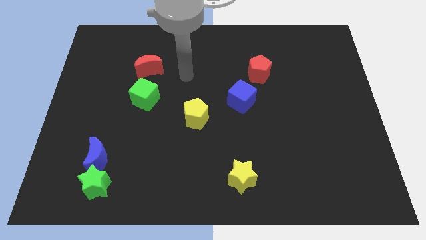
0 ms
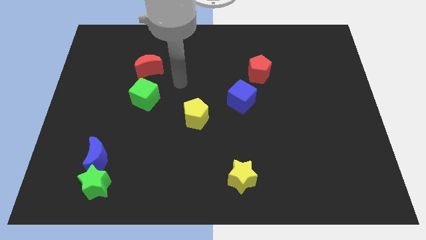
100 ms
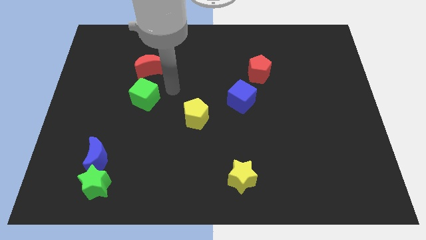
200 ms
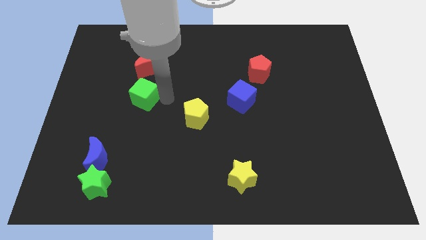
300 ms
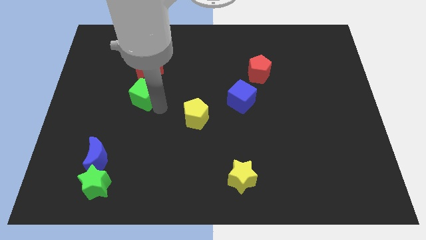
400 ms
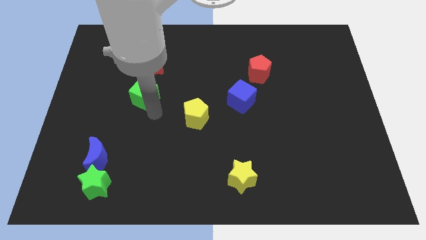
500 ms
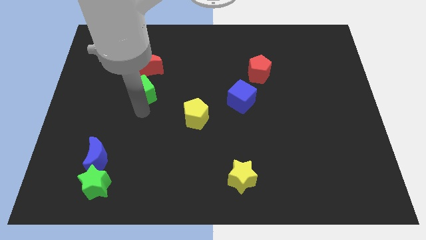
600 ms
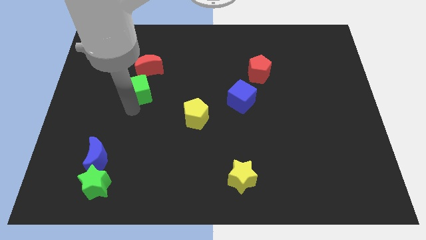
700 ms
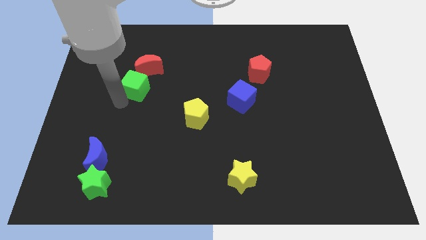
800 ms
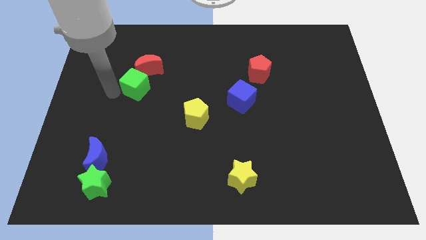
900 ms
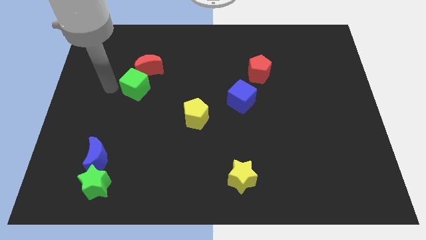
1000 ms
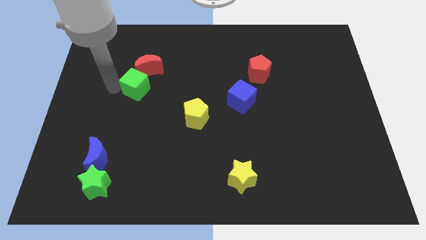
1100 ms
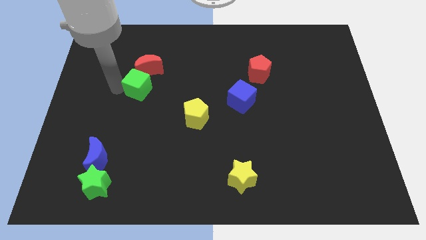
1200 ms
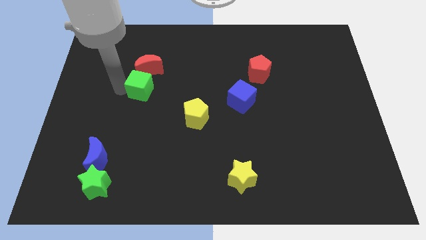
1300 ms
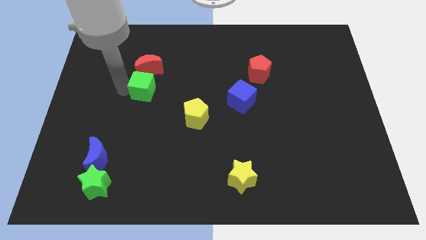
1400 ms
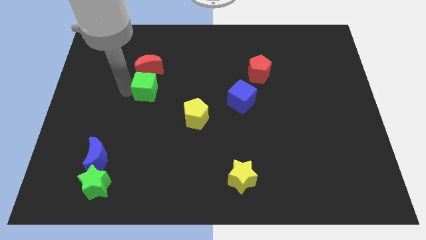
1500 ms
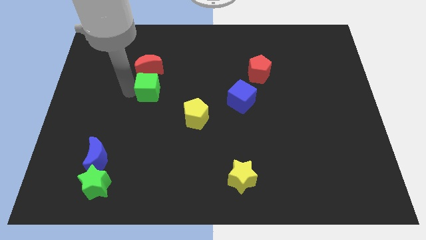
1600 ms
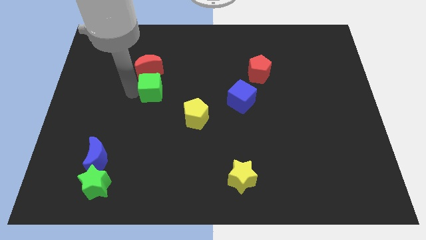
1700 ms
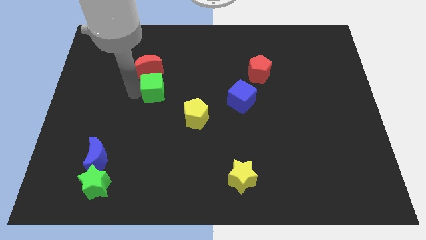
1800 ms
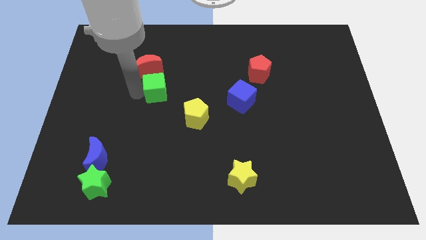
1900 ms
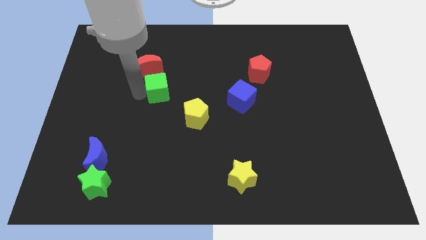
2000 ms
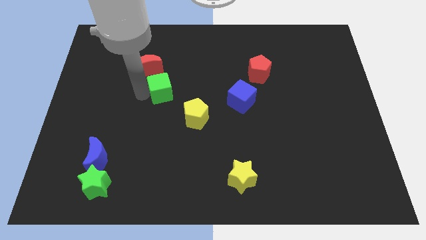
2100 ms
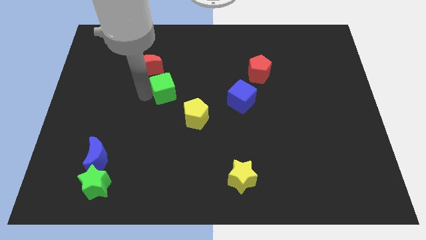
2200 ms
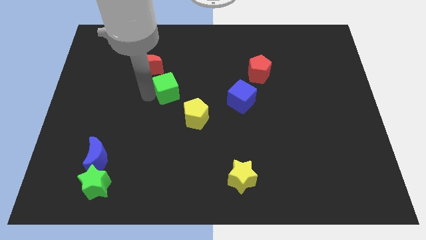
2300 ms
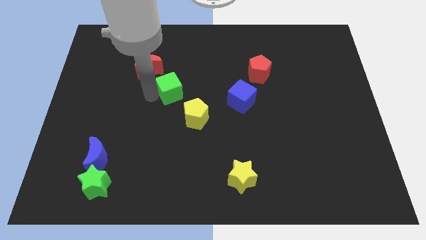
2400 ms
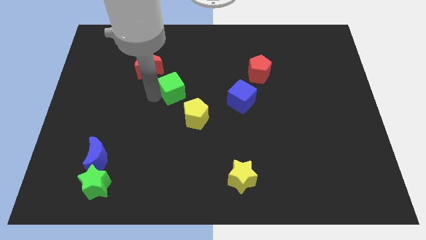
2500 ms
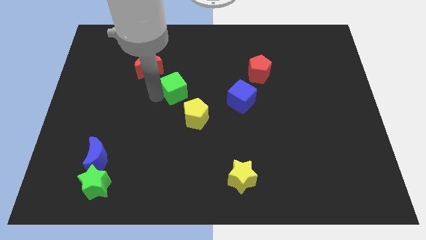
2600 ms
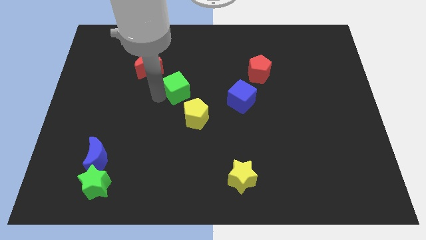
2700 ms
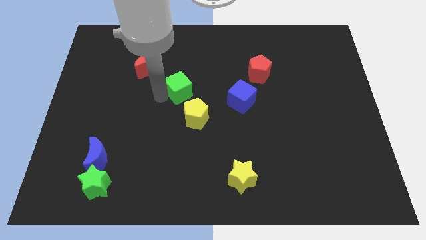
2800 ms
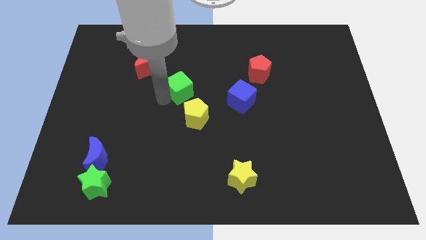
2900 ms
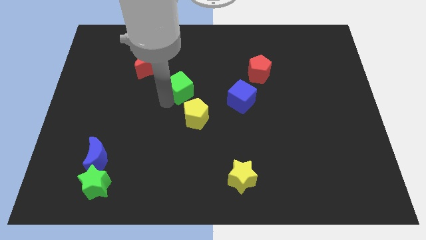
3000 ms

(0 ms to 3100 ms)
slightly slide the green cube upwards and to the right

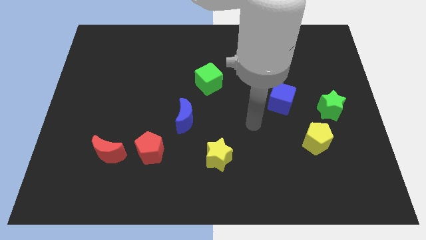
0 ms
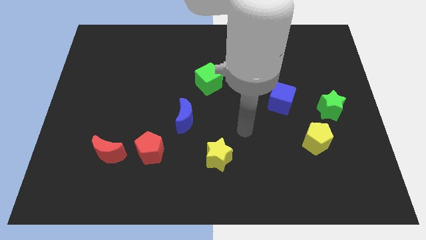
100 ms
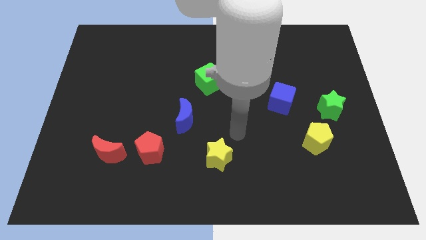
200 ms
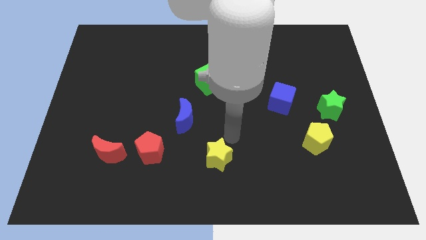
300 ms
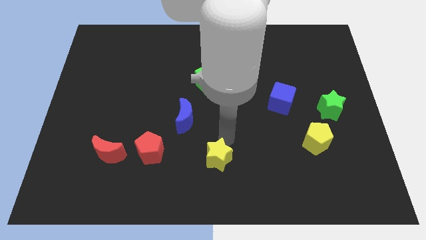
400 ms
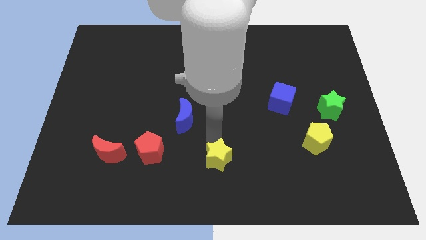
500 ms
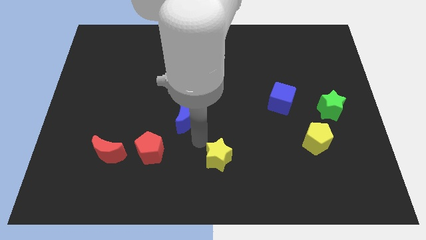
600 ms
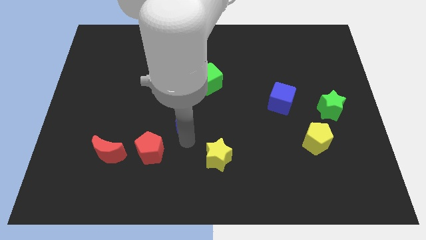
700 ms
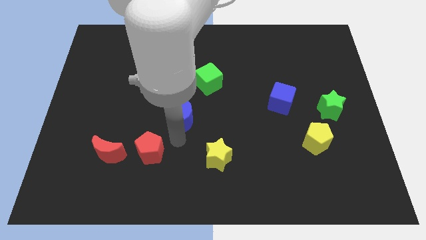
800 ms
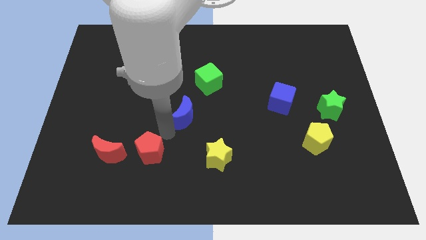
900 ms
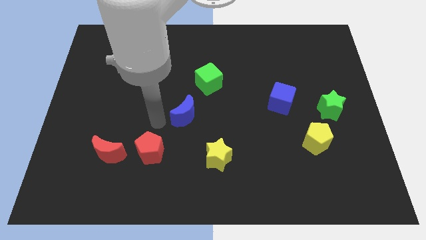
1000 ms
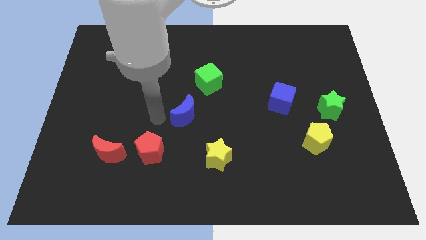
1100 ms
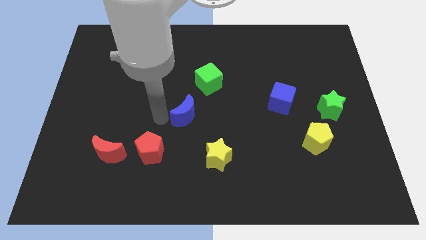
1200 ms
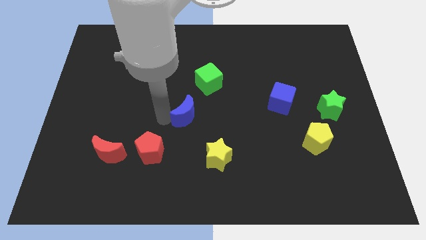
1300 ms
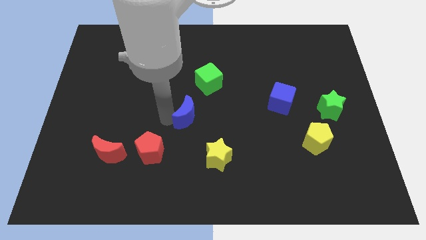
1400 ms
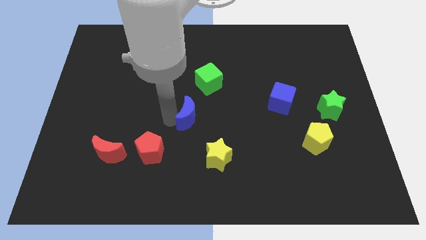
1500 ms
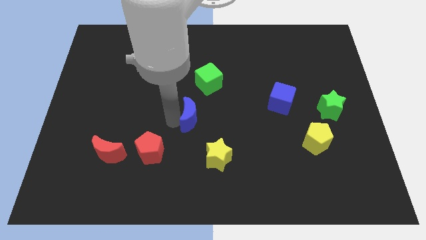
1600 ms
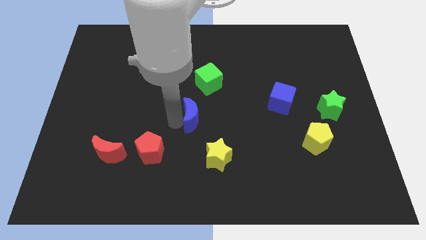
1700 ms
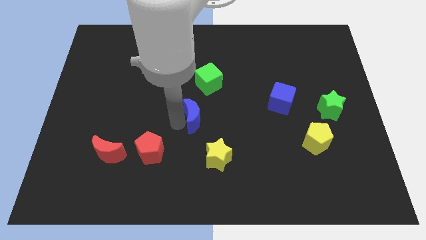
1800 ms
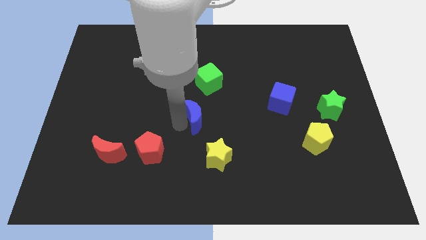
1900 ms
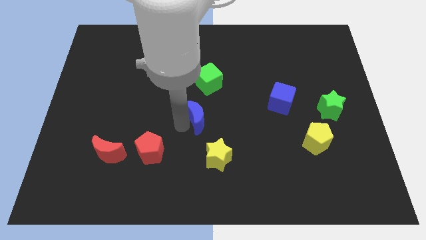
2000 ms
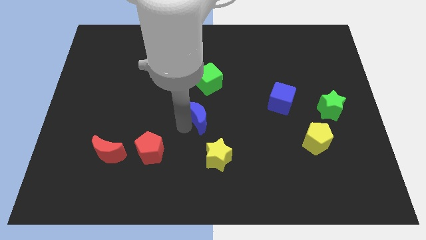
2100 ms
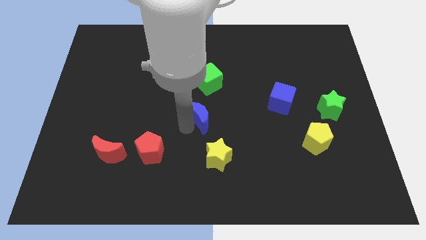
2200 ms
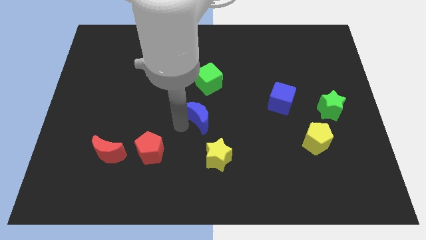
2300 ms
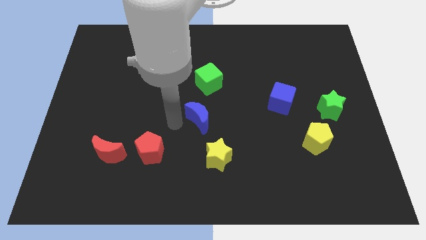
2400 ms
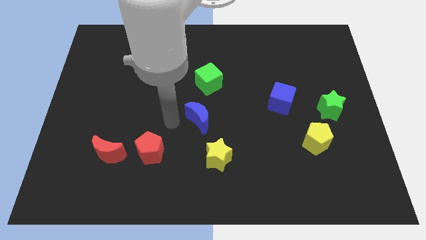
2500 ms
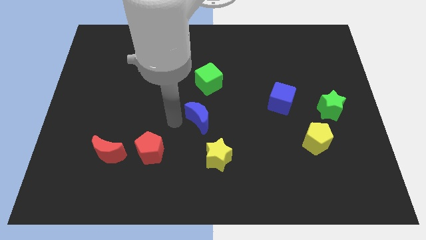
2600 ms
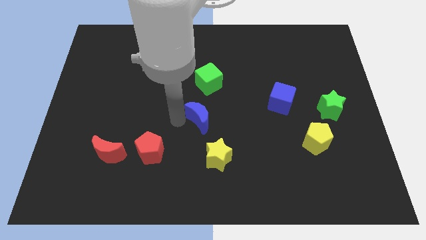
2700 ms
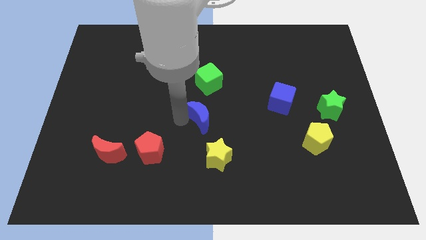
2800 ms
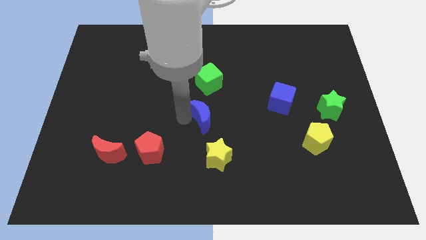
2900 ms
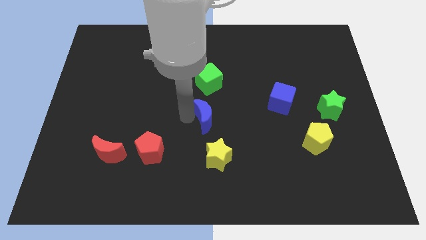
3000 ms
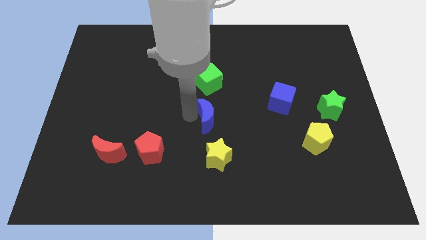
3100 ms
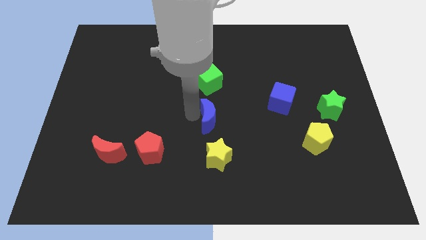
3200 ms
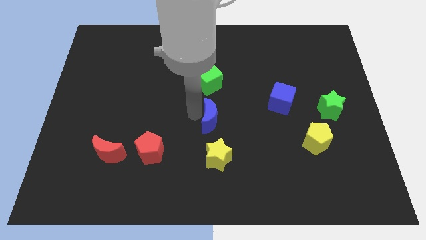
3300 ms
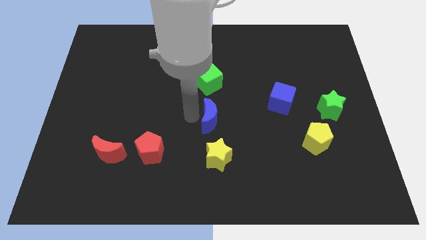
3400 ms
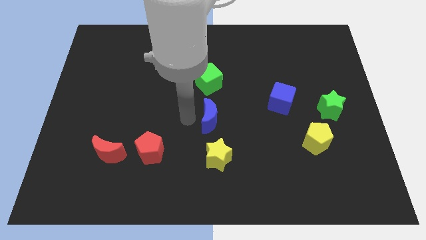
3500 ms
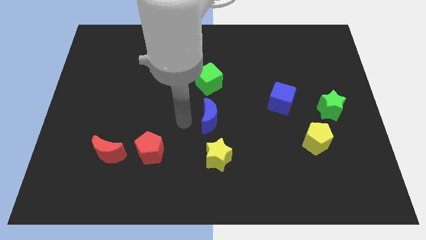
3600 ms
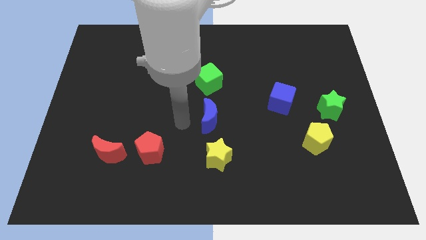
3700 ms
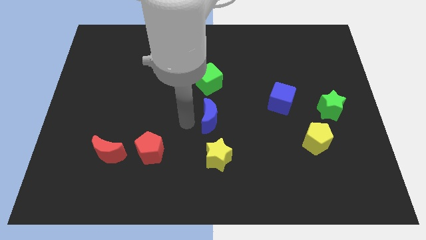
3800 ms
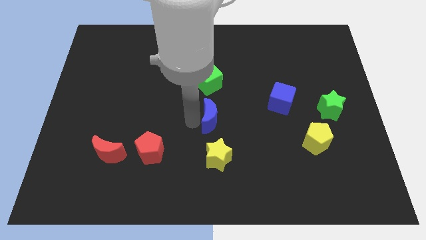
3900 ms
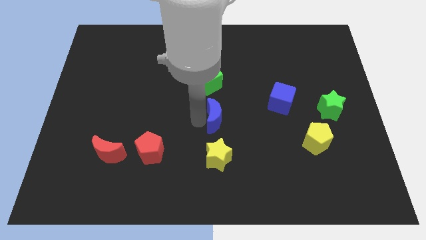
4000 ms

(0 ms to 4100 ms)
push the blue moon a little to the right

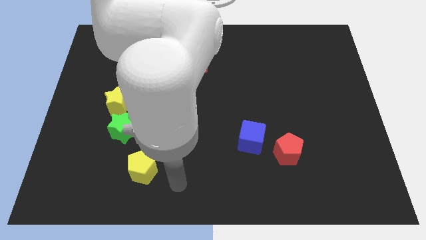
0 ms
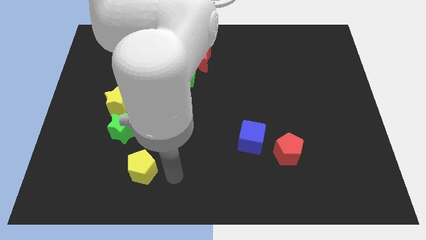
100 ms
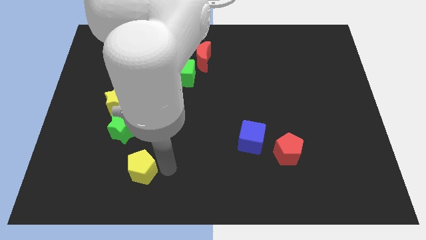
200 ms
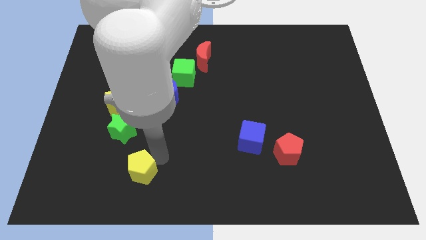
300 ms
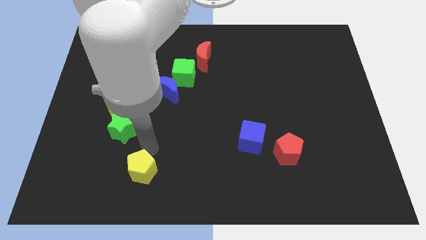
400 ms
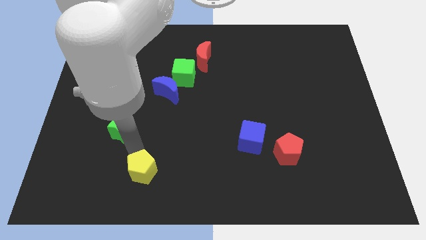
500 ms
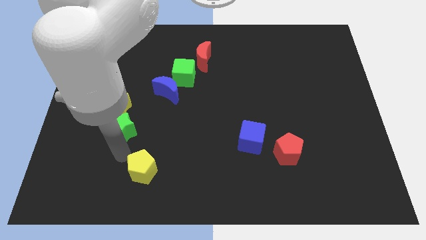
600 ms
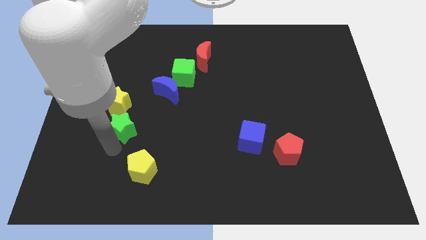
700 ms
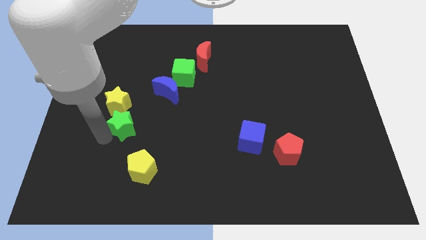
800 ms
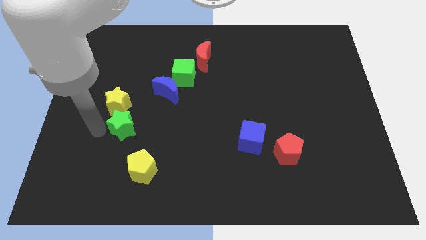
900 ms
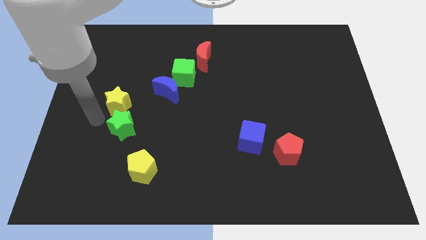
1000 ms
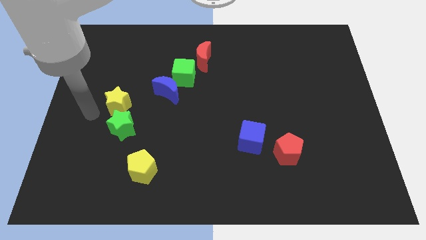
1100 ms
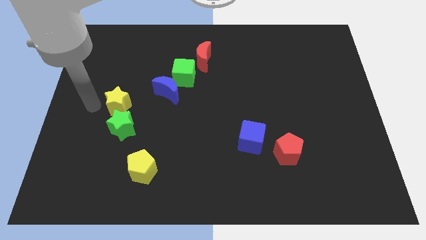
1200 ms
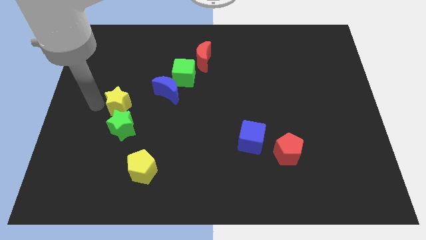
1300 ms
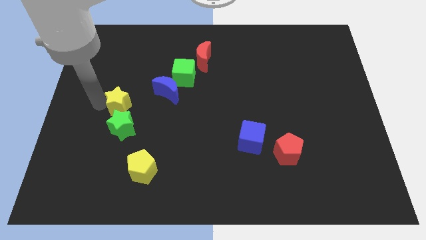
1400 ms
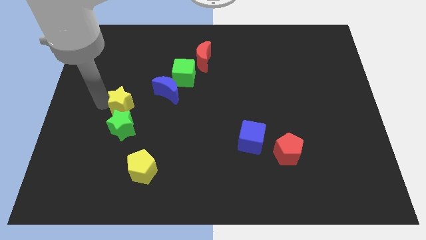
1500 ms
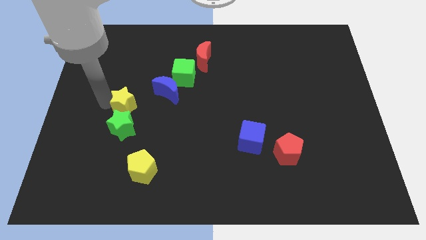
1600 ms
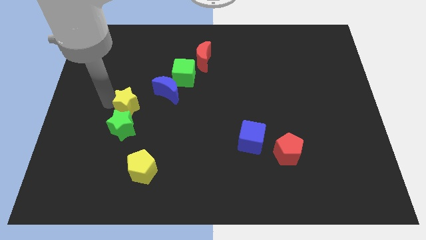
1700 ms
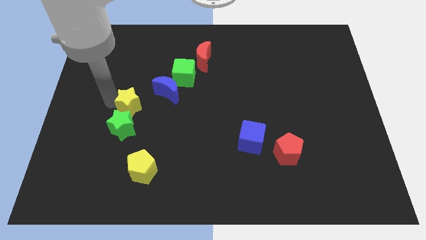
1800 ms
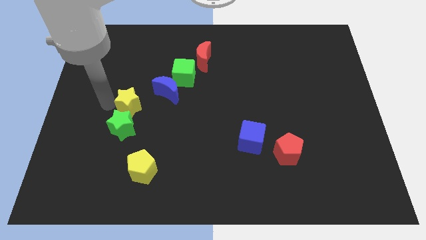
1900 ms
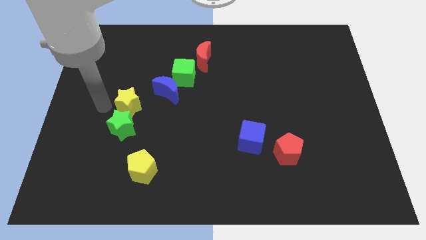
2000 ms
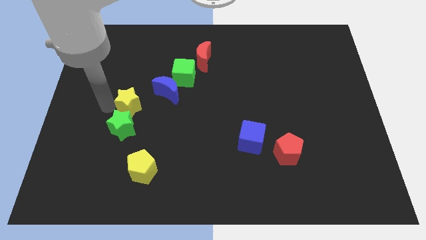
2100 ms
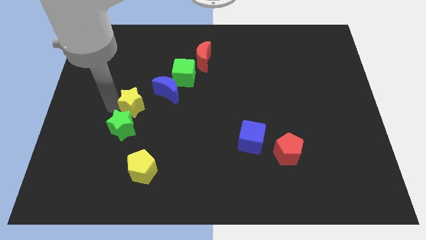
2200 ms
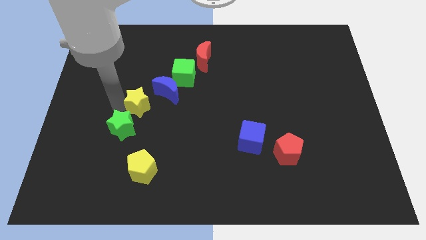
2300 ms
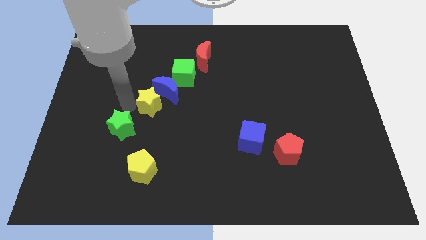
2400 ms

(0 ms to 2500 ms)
push the yellow star a little right
